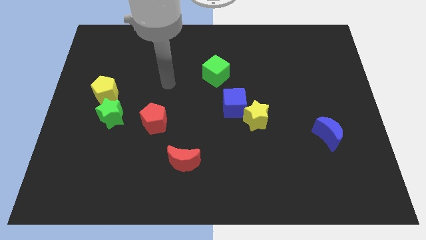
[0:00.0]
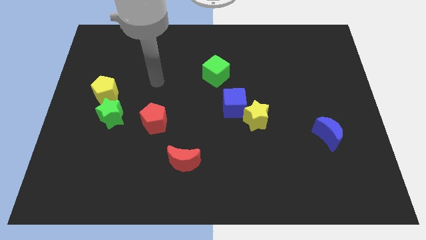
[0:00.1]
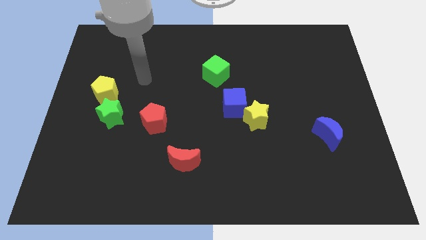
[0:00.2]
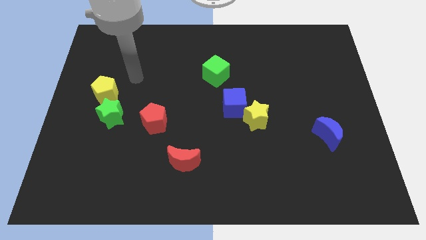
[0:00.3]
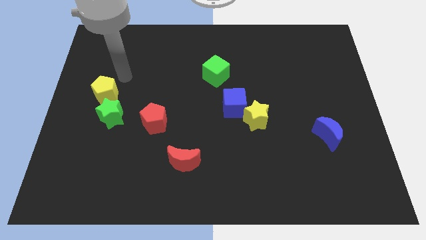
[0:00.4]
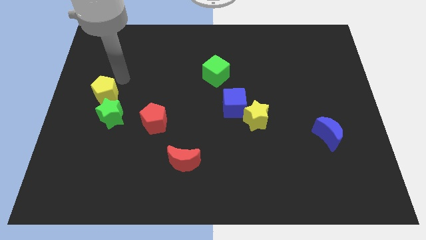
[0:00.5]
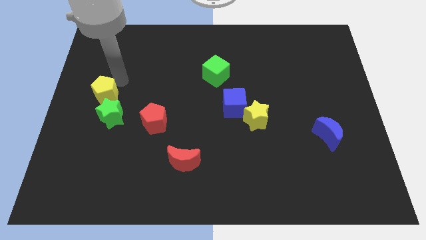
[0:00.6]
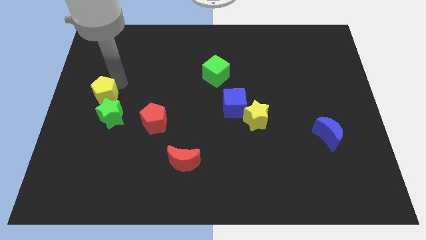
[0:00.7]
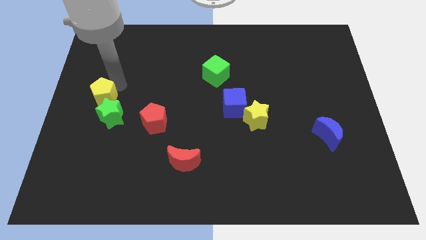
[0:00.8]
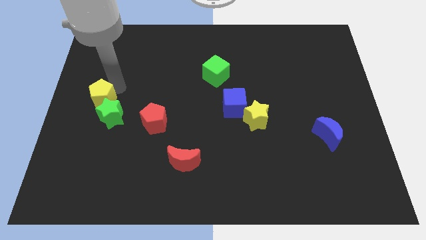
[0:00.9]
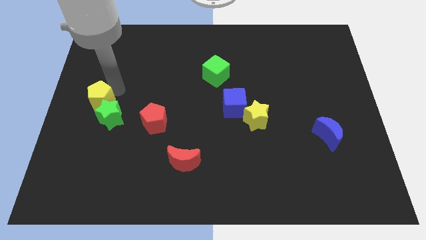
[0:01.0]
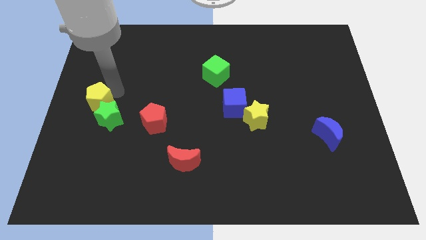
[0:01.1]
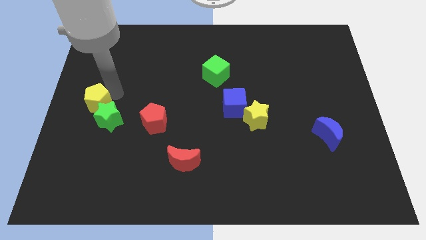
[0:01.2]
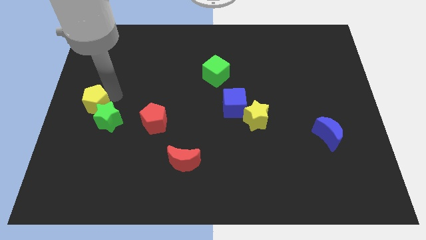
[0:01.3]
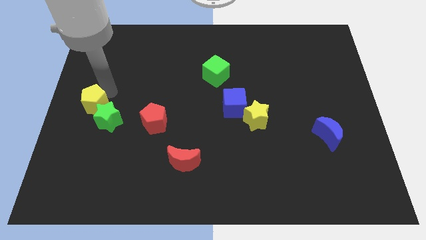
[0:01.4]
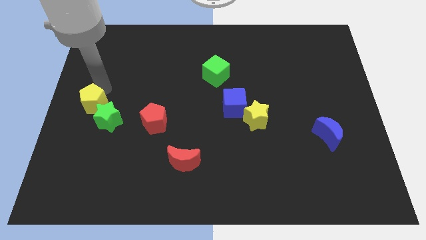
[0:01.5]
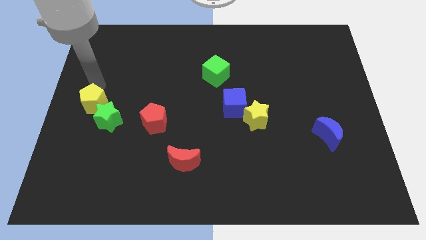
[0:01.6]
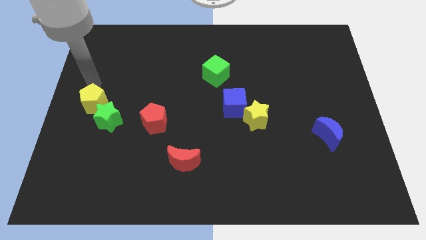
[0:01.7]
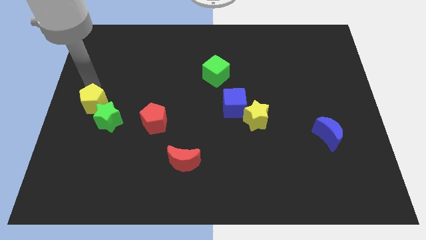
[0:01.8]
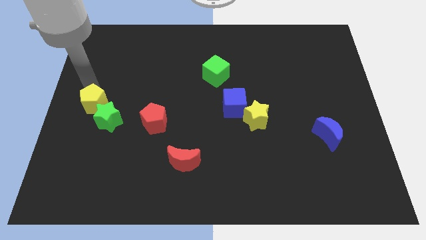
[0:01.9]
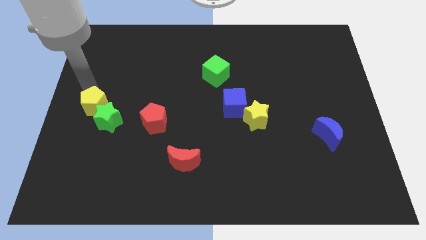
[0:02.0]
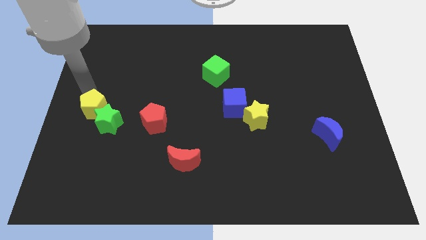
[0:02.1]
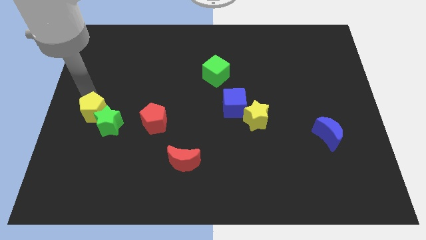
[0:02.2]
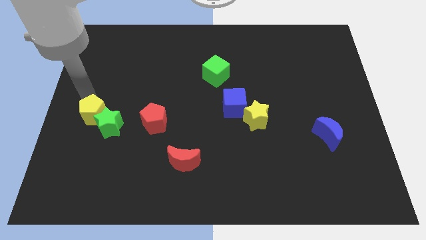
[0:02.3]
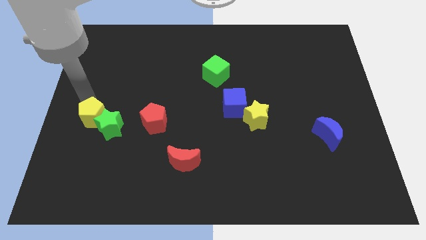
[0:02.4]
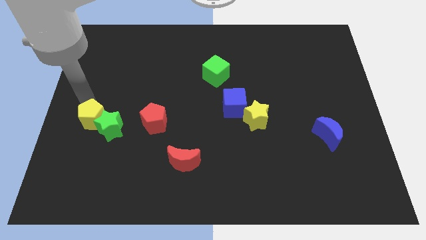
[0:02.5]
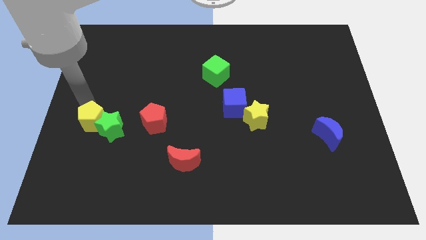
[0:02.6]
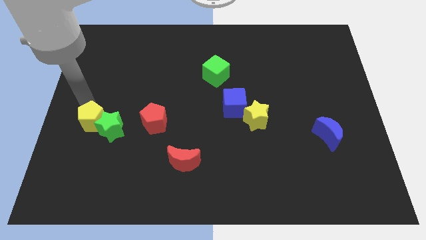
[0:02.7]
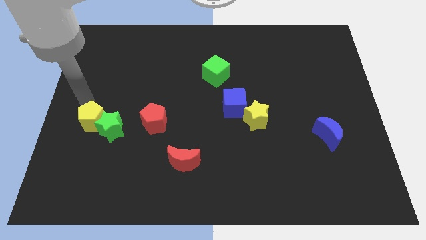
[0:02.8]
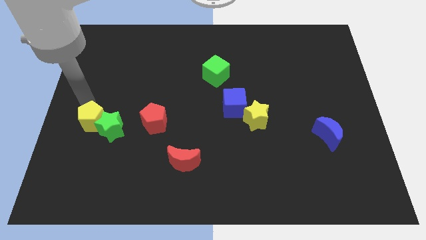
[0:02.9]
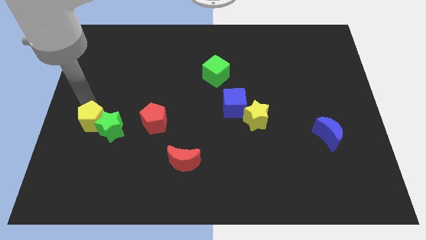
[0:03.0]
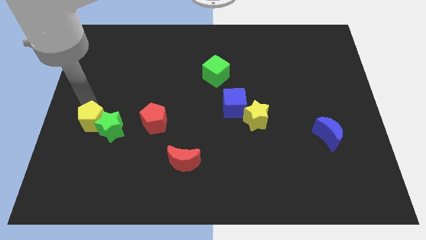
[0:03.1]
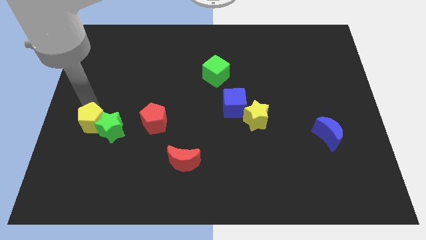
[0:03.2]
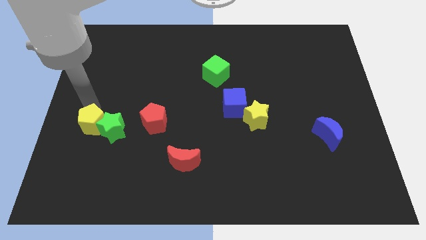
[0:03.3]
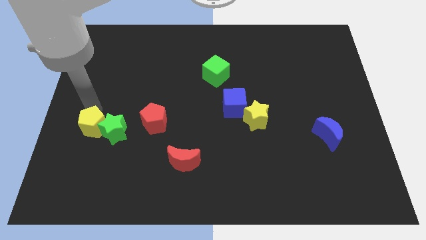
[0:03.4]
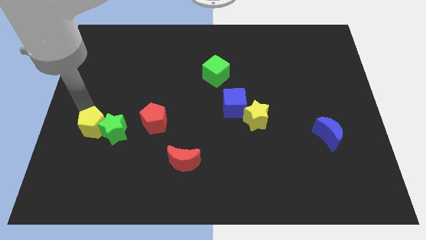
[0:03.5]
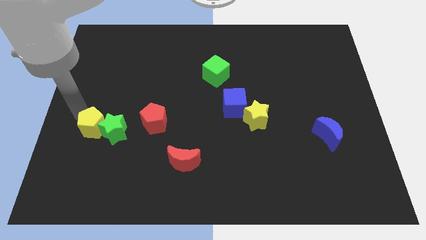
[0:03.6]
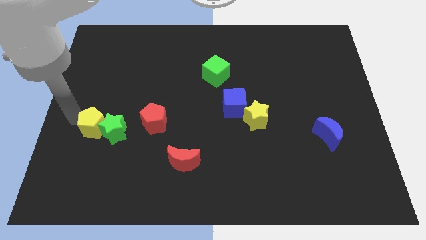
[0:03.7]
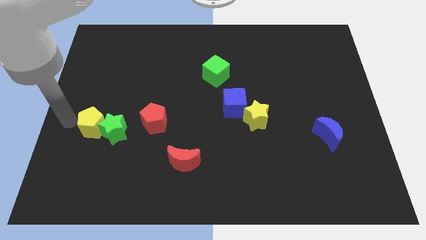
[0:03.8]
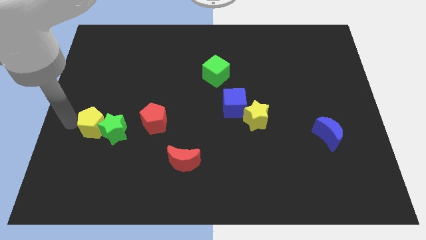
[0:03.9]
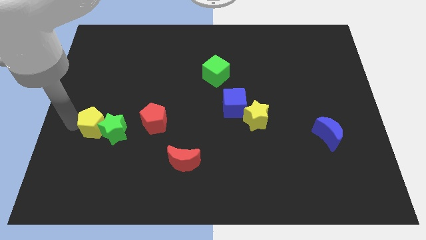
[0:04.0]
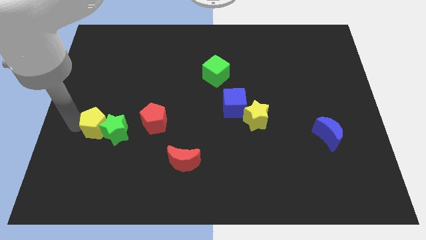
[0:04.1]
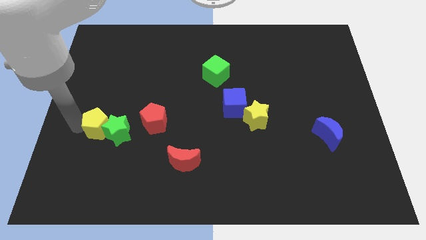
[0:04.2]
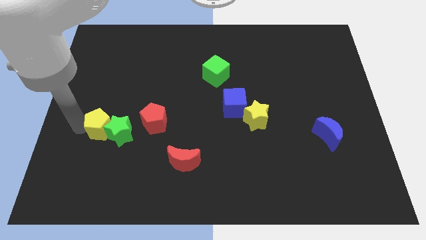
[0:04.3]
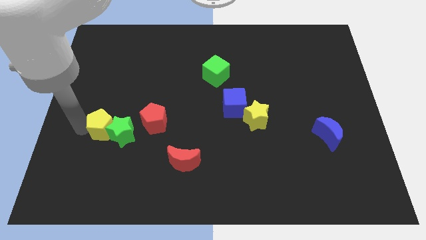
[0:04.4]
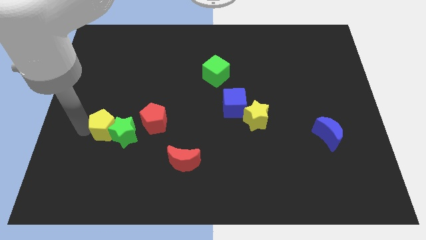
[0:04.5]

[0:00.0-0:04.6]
slide the yellow pentagon downwards and to the right diagonally slightly

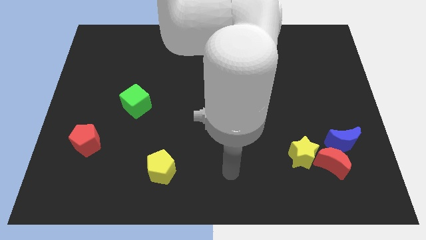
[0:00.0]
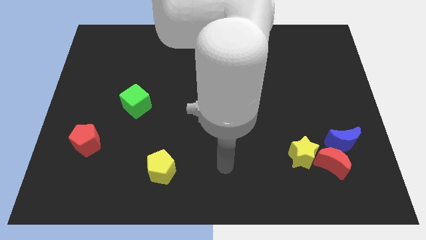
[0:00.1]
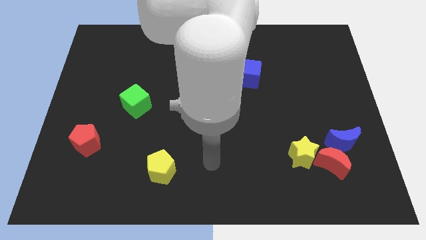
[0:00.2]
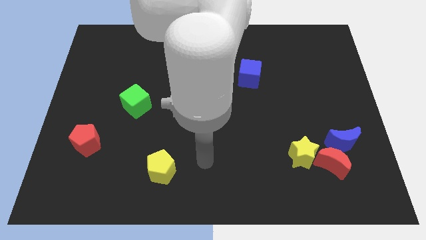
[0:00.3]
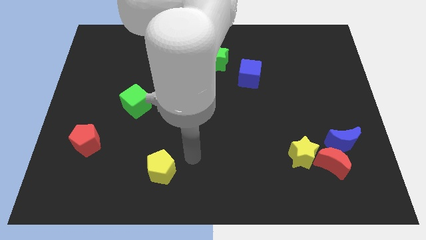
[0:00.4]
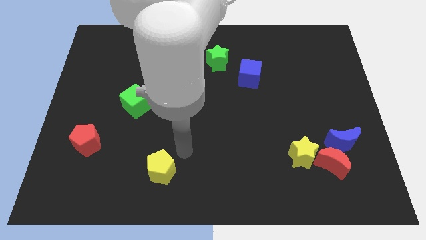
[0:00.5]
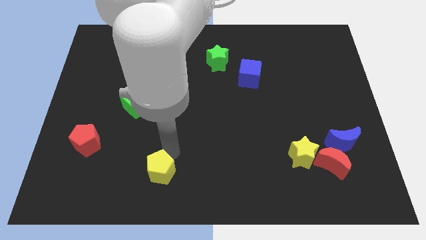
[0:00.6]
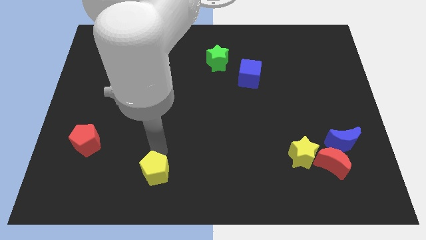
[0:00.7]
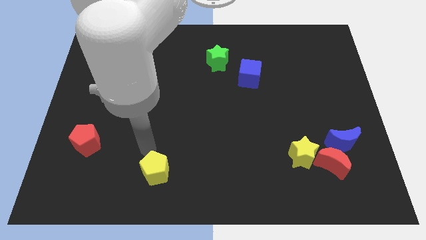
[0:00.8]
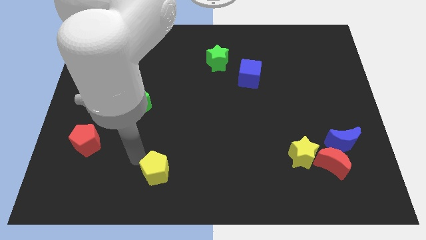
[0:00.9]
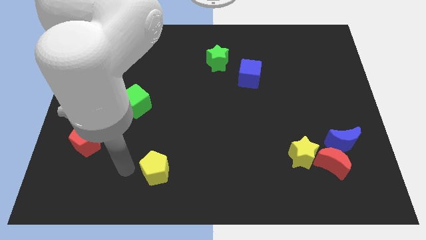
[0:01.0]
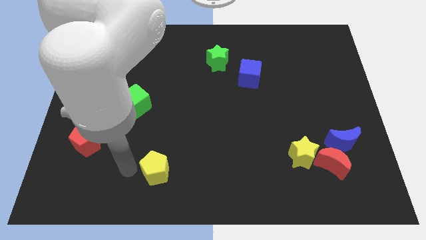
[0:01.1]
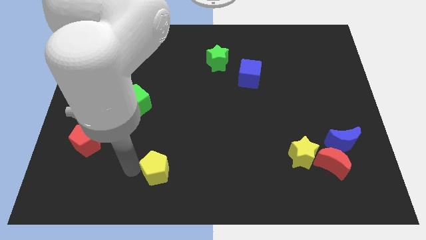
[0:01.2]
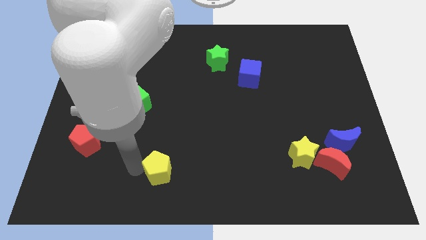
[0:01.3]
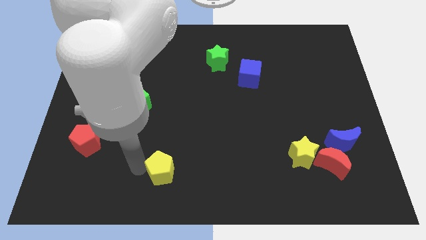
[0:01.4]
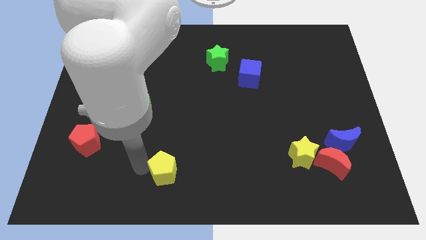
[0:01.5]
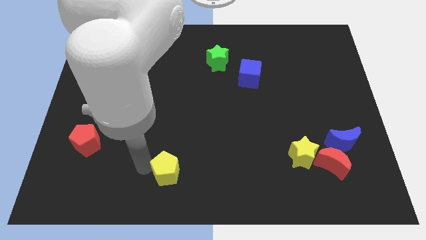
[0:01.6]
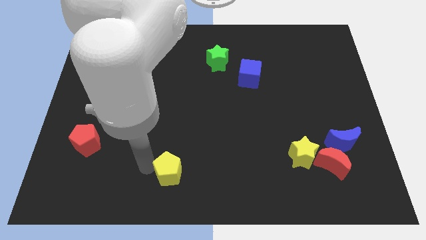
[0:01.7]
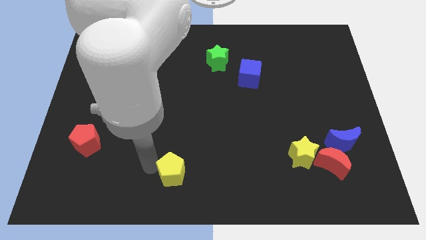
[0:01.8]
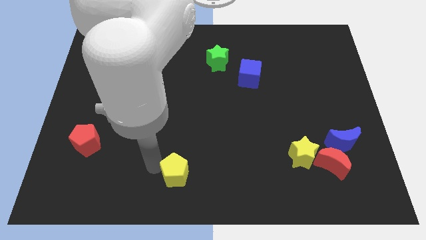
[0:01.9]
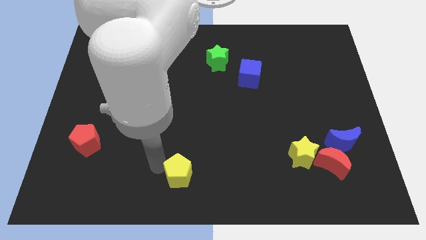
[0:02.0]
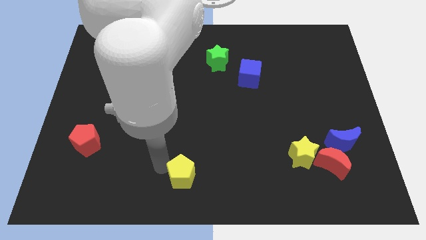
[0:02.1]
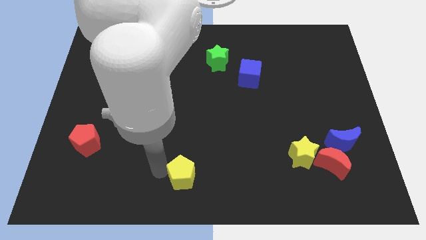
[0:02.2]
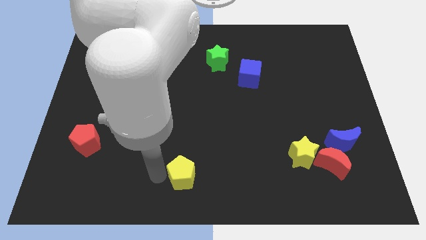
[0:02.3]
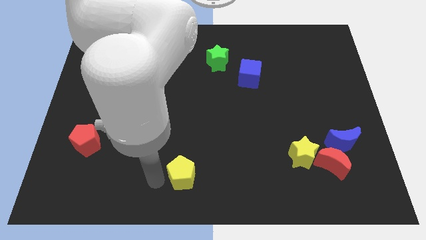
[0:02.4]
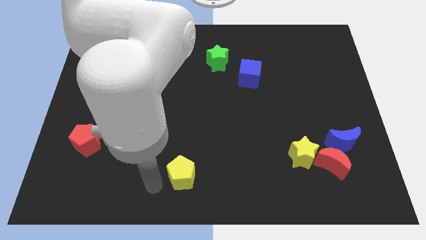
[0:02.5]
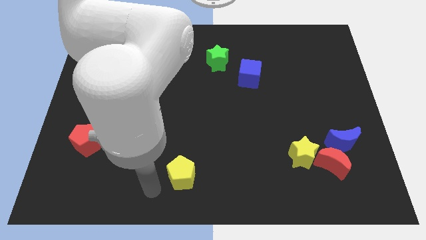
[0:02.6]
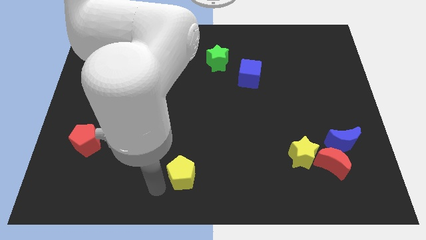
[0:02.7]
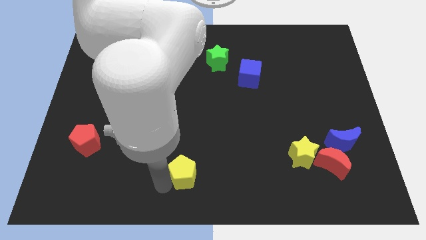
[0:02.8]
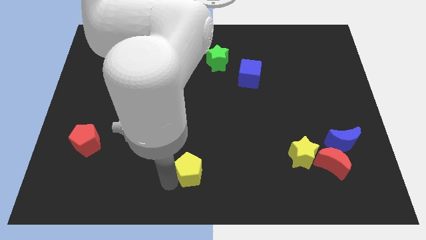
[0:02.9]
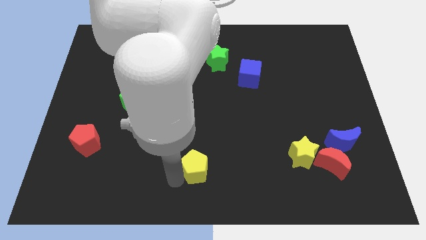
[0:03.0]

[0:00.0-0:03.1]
slide the yellow pentagon a little right
